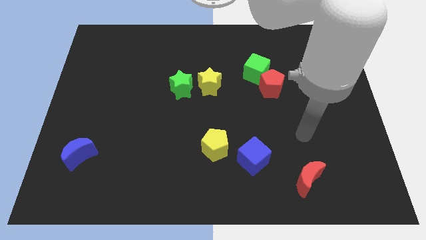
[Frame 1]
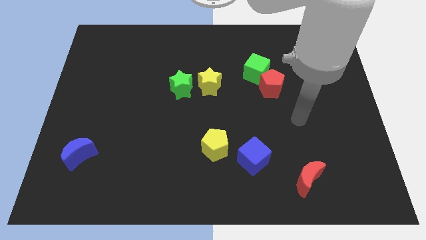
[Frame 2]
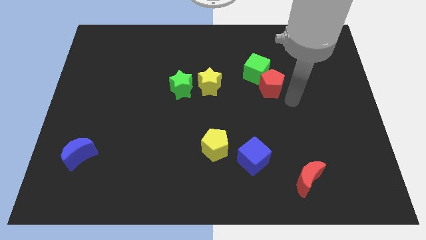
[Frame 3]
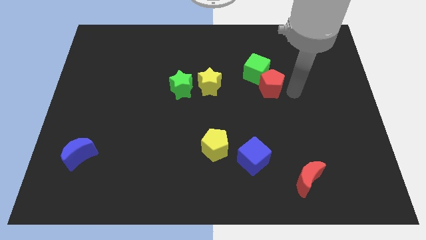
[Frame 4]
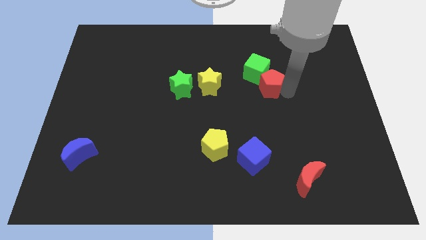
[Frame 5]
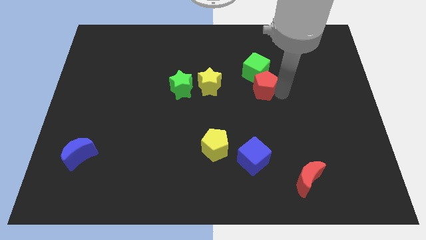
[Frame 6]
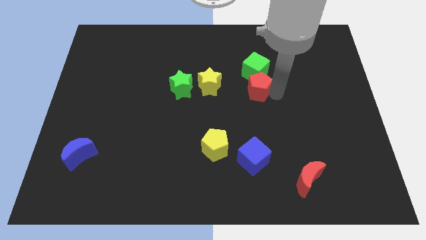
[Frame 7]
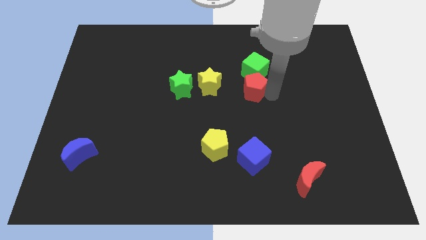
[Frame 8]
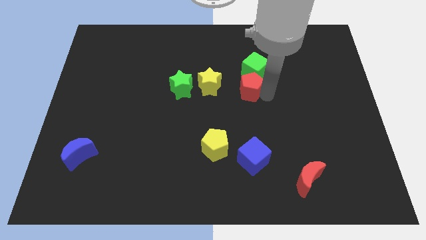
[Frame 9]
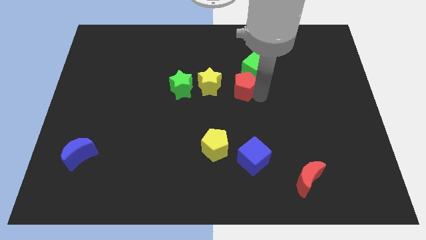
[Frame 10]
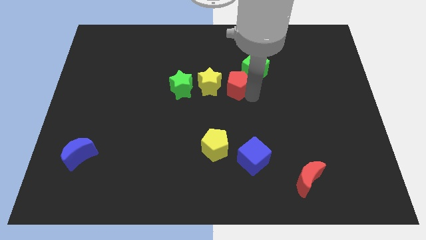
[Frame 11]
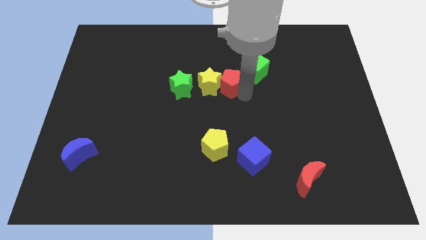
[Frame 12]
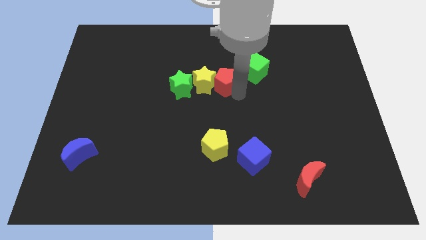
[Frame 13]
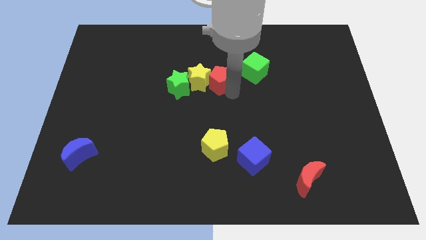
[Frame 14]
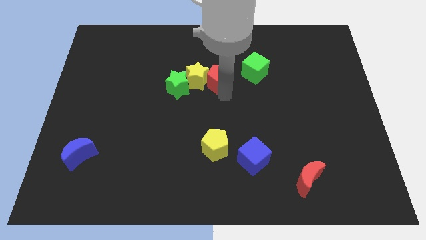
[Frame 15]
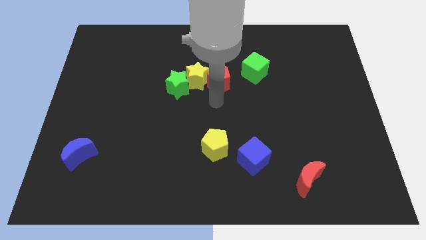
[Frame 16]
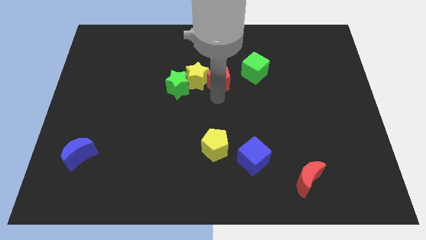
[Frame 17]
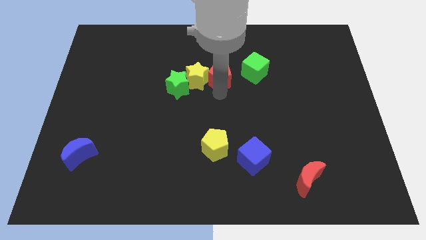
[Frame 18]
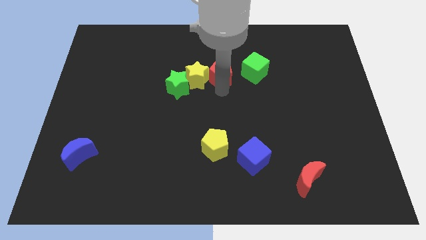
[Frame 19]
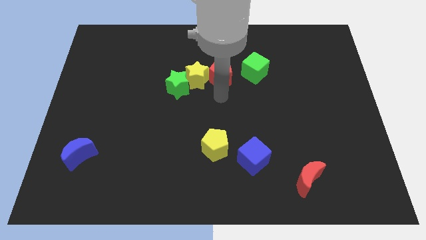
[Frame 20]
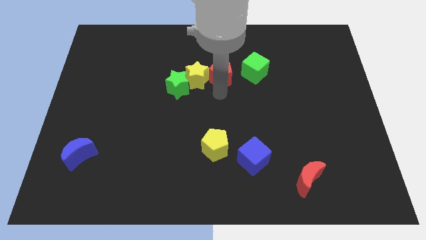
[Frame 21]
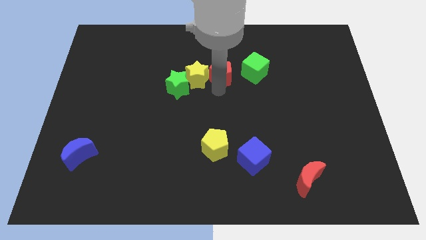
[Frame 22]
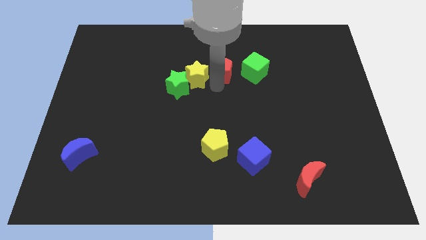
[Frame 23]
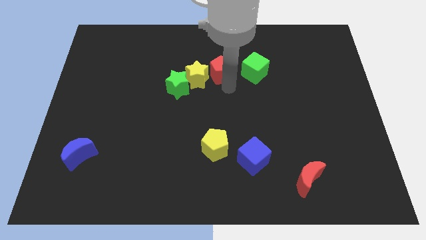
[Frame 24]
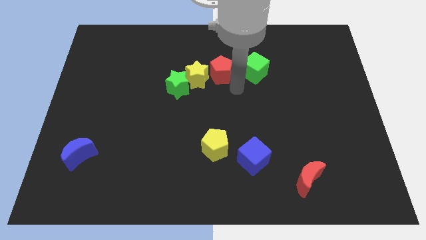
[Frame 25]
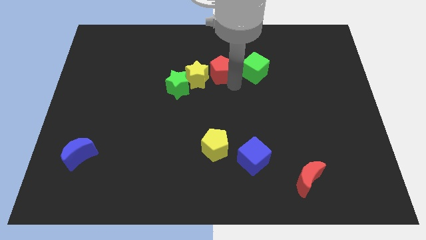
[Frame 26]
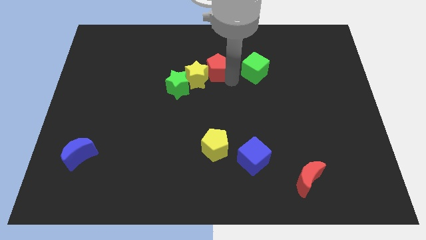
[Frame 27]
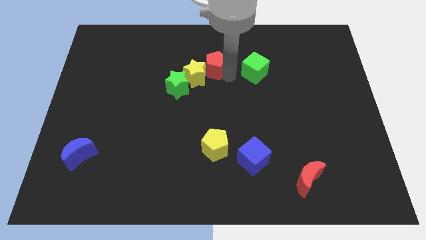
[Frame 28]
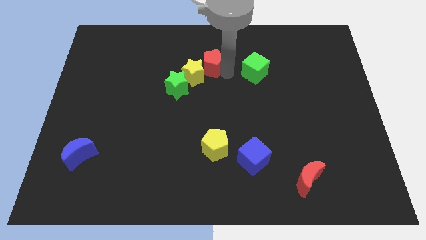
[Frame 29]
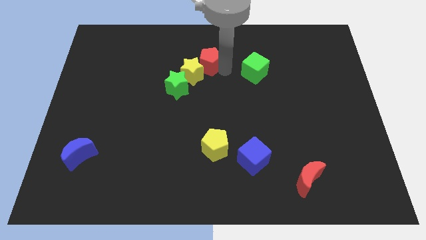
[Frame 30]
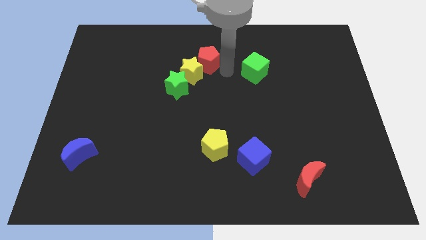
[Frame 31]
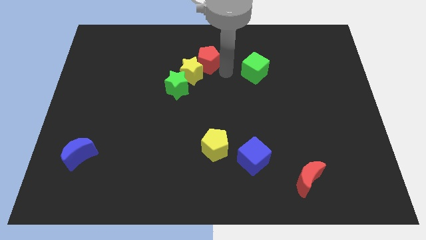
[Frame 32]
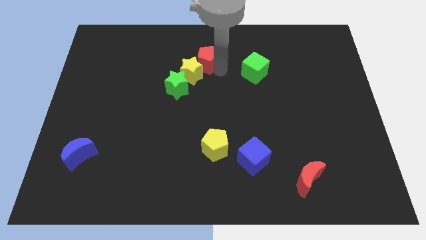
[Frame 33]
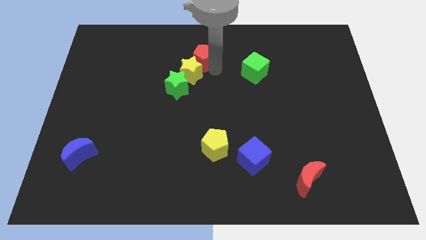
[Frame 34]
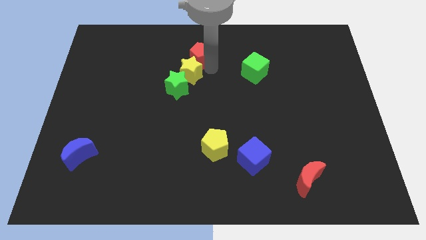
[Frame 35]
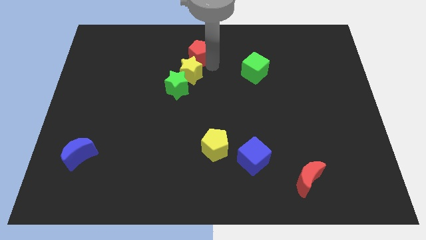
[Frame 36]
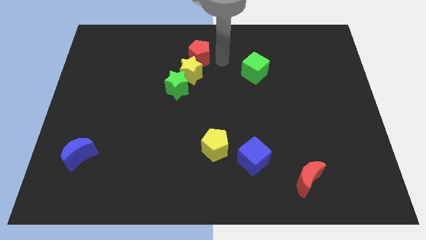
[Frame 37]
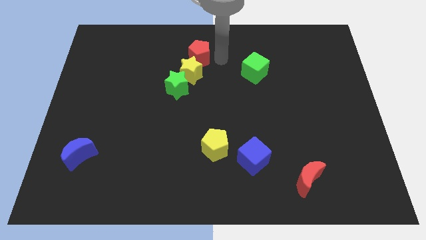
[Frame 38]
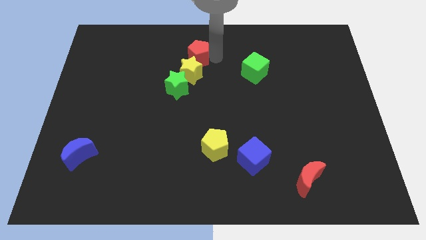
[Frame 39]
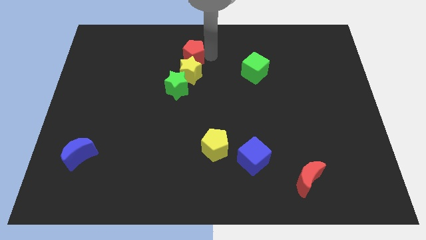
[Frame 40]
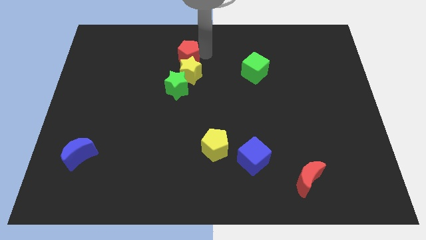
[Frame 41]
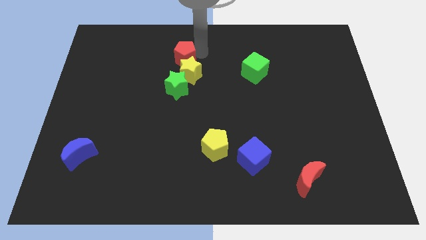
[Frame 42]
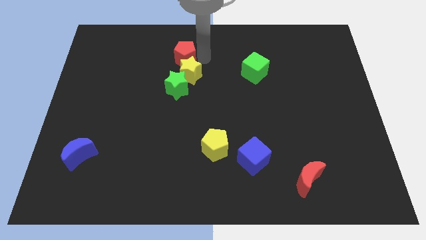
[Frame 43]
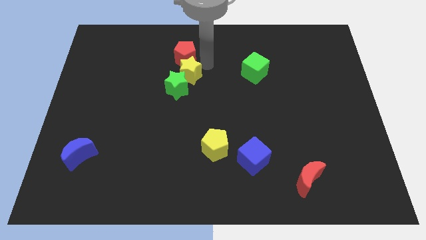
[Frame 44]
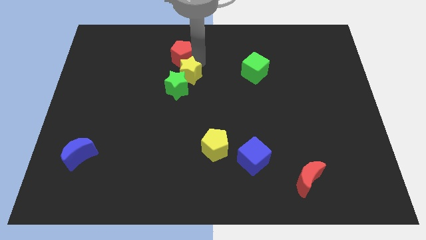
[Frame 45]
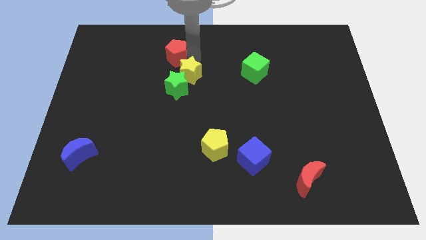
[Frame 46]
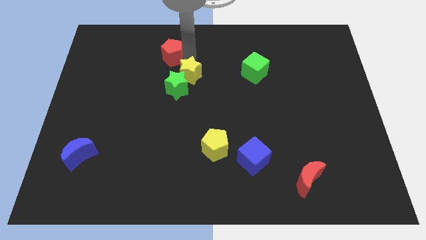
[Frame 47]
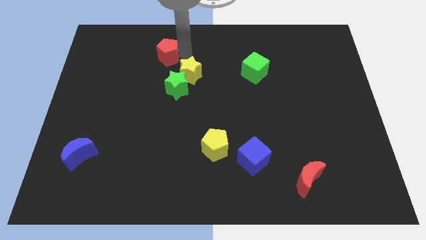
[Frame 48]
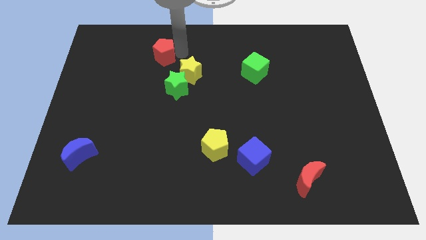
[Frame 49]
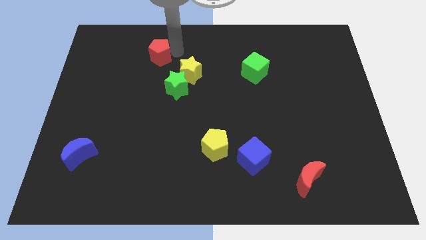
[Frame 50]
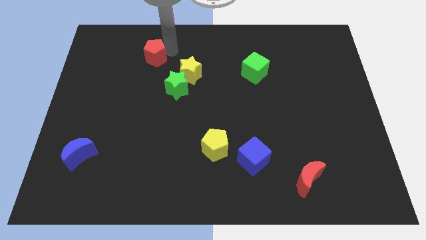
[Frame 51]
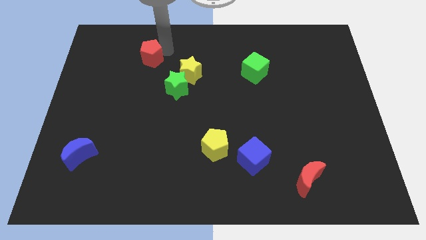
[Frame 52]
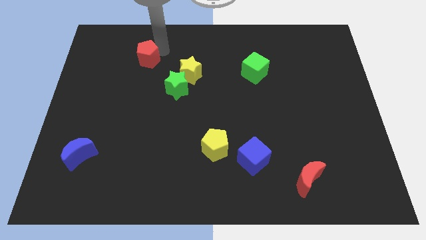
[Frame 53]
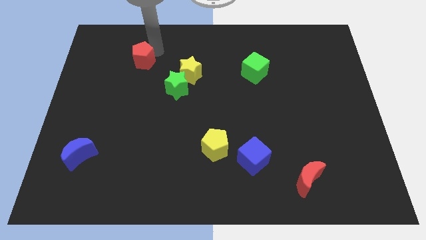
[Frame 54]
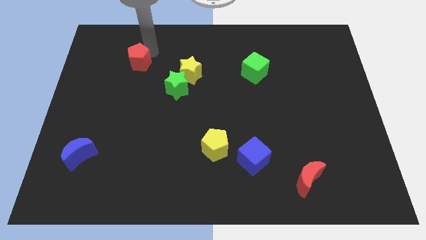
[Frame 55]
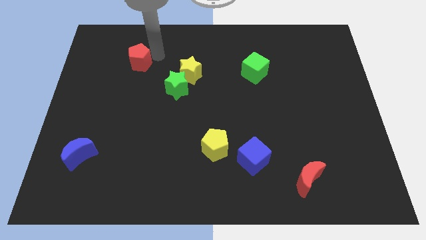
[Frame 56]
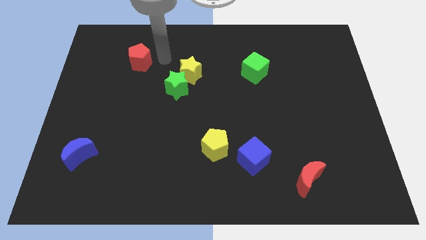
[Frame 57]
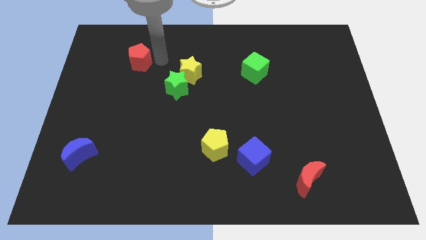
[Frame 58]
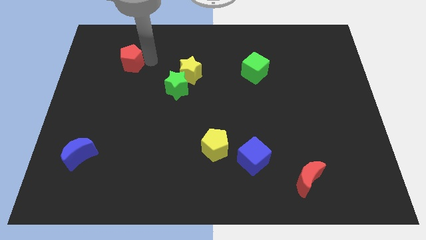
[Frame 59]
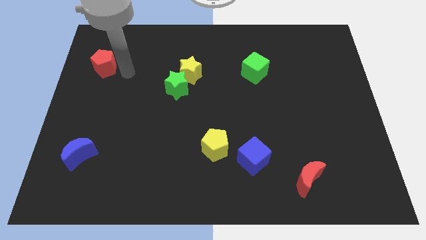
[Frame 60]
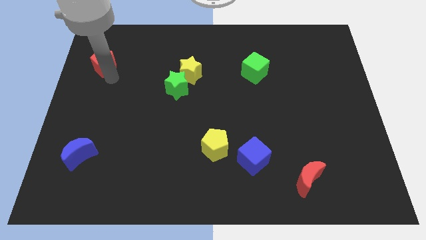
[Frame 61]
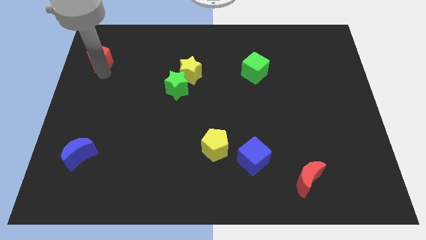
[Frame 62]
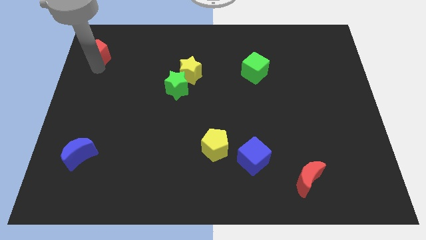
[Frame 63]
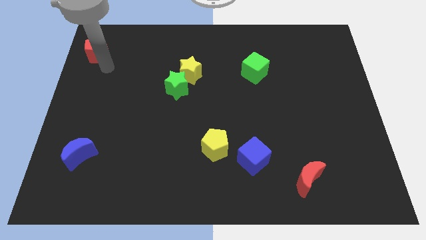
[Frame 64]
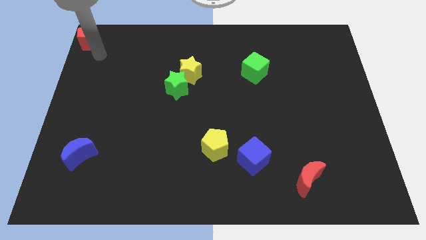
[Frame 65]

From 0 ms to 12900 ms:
put the red pentagon to the top left

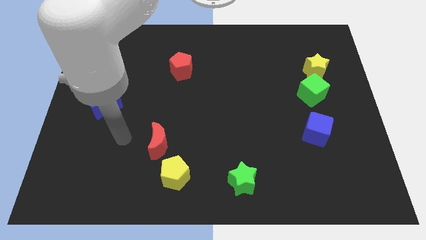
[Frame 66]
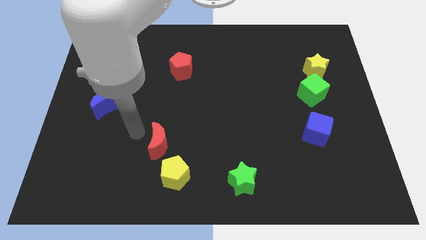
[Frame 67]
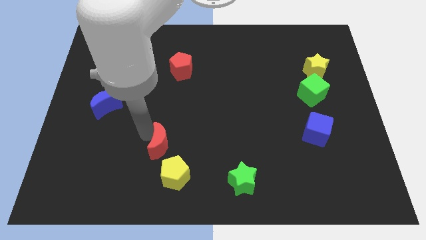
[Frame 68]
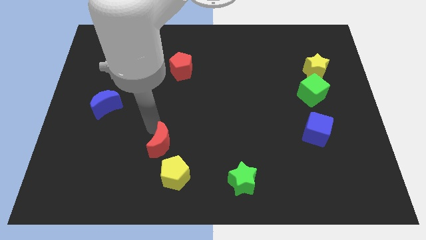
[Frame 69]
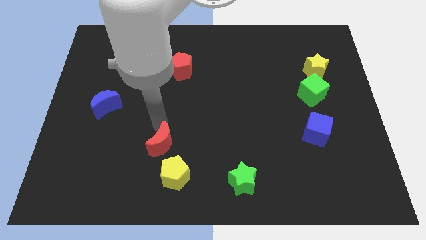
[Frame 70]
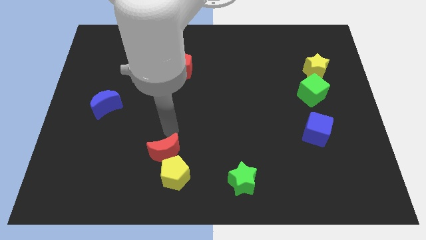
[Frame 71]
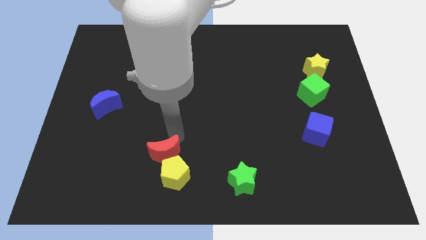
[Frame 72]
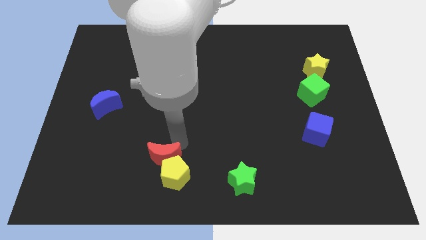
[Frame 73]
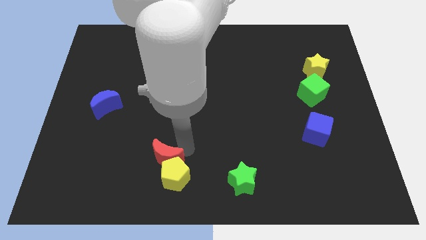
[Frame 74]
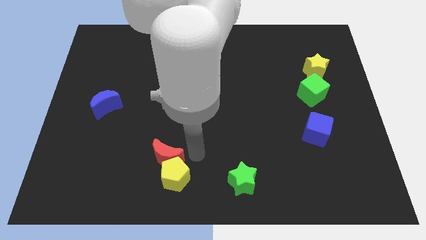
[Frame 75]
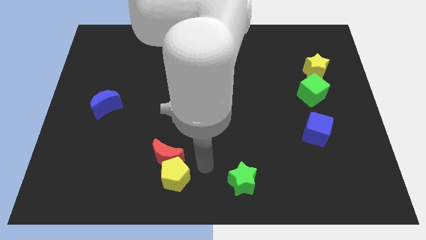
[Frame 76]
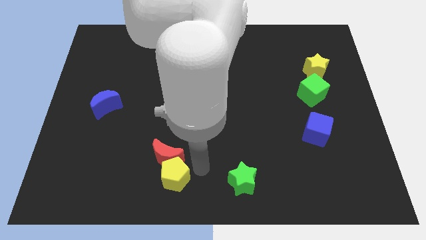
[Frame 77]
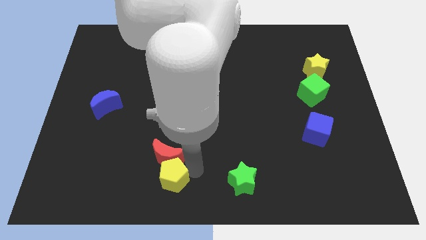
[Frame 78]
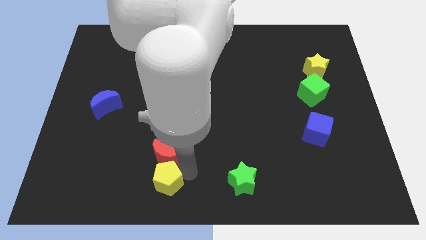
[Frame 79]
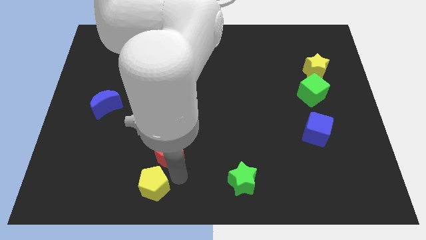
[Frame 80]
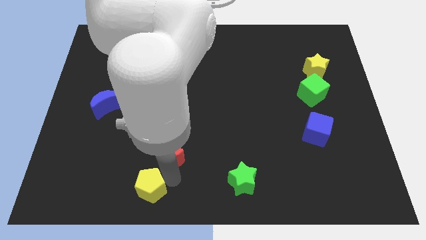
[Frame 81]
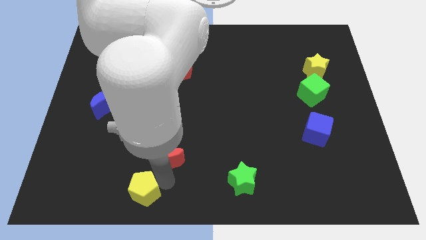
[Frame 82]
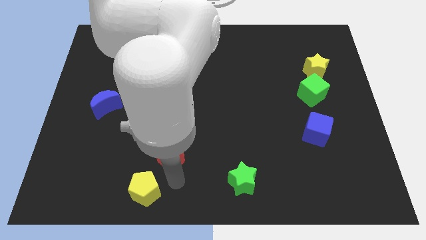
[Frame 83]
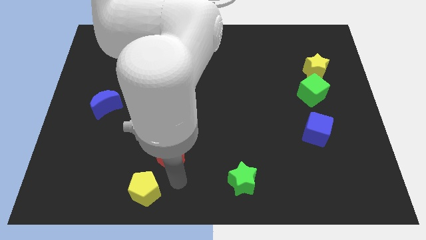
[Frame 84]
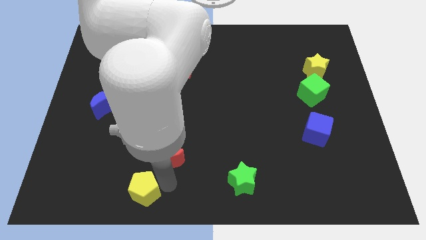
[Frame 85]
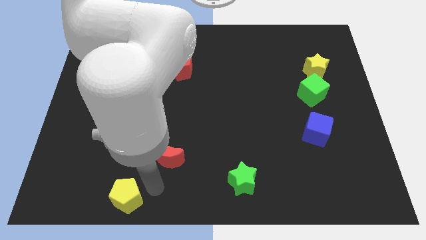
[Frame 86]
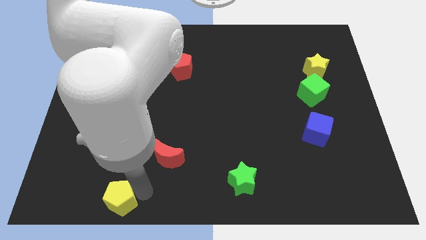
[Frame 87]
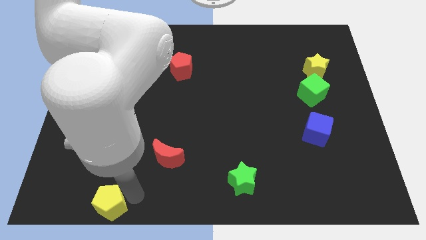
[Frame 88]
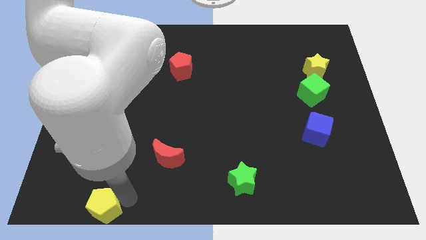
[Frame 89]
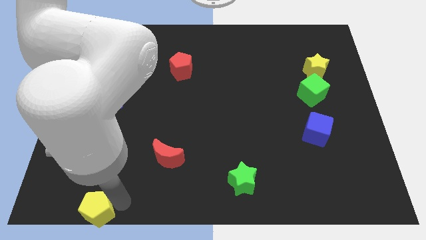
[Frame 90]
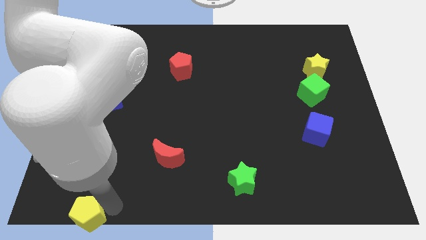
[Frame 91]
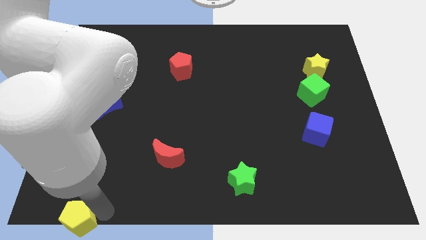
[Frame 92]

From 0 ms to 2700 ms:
push the yellow pentagon to the lower left corner
